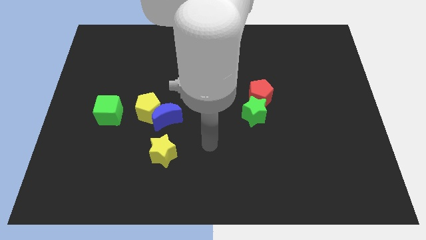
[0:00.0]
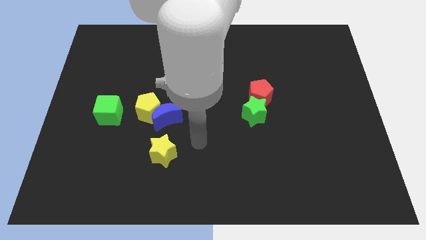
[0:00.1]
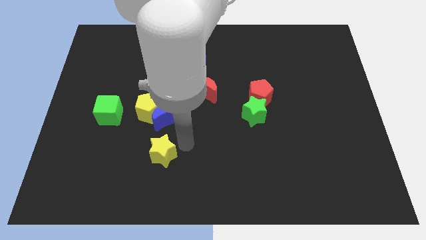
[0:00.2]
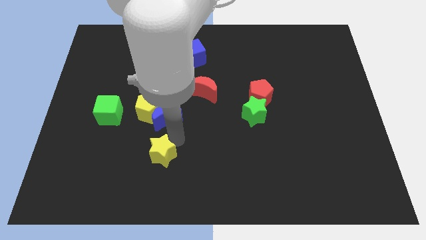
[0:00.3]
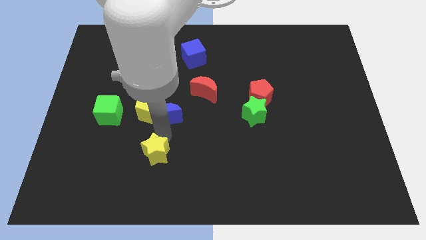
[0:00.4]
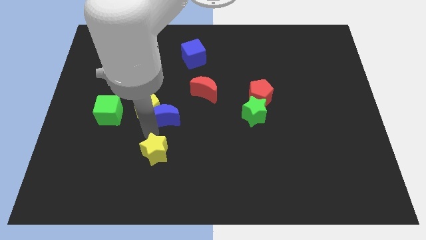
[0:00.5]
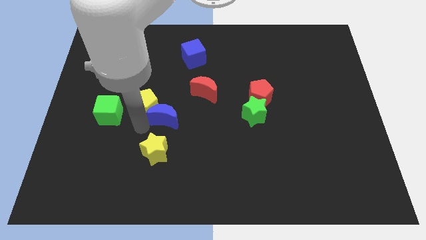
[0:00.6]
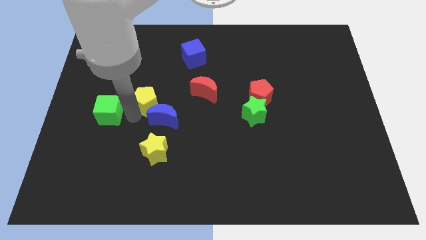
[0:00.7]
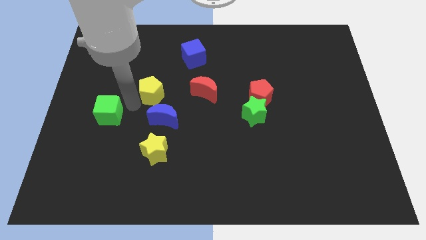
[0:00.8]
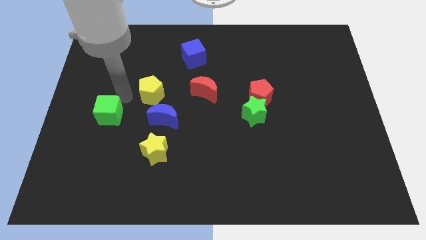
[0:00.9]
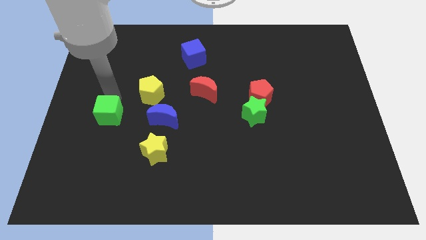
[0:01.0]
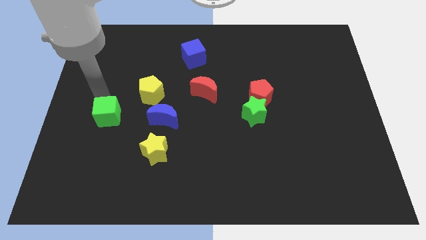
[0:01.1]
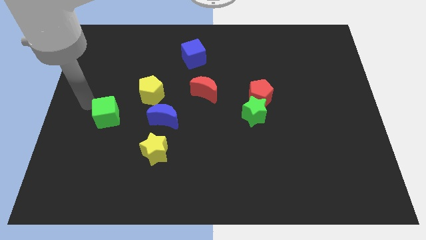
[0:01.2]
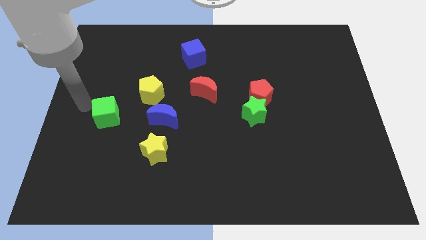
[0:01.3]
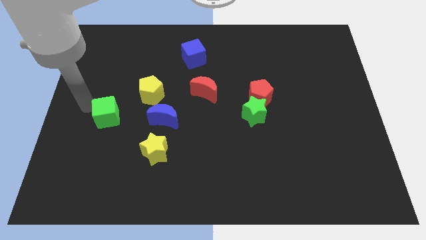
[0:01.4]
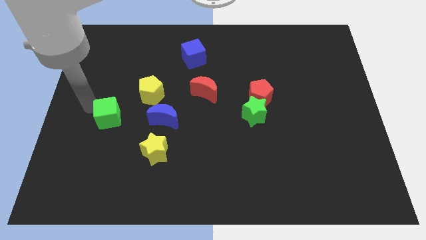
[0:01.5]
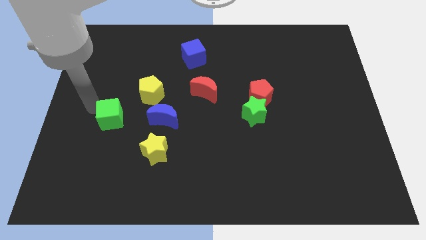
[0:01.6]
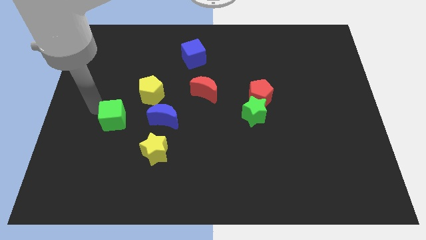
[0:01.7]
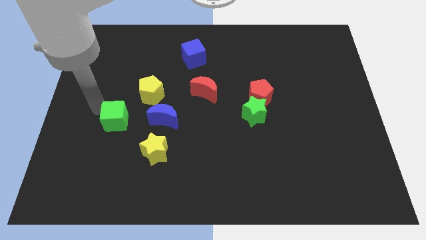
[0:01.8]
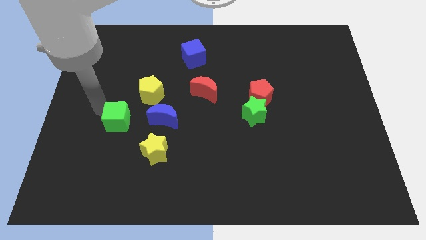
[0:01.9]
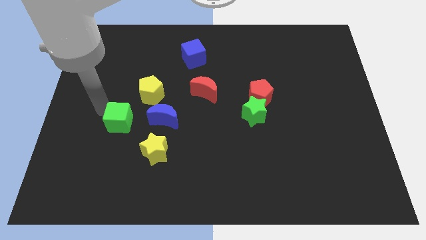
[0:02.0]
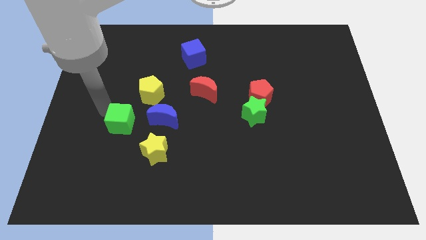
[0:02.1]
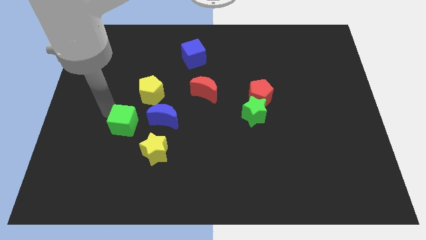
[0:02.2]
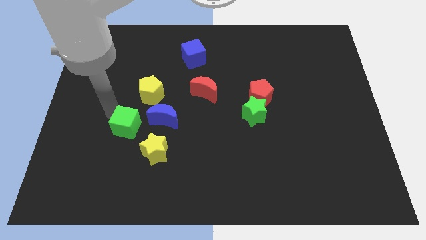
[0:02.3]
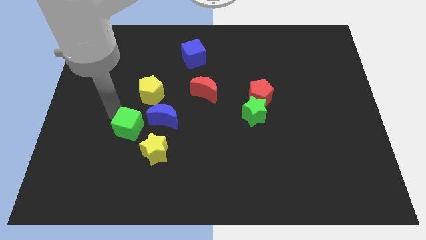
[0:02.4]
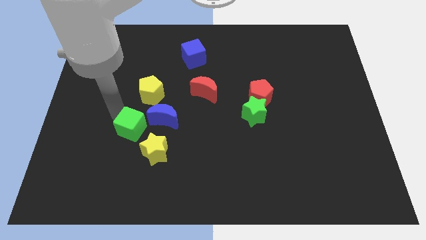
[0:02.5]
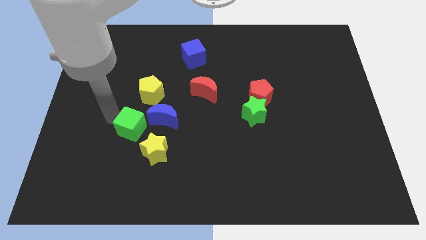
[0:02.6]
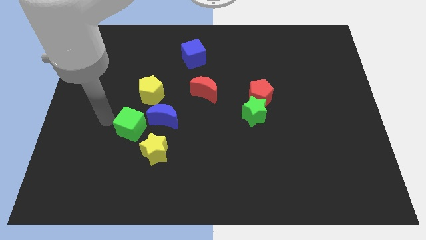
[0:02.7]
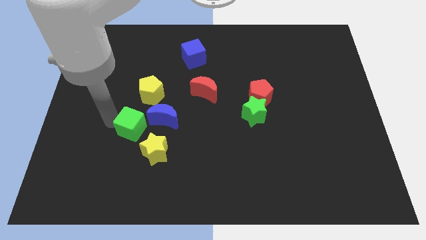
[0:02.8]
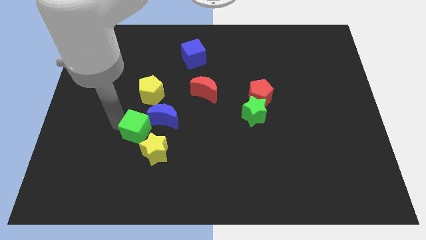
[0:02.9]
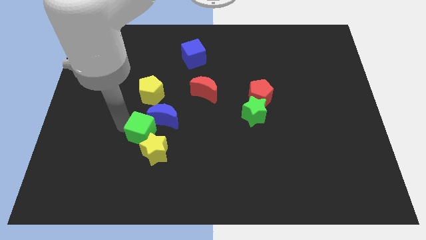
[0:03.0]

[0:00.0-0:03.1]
slide the green cube right a little

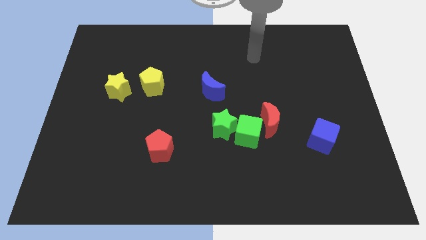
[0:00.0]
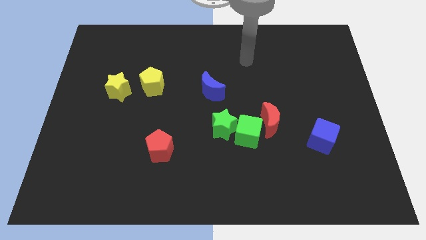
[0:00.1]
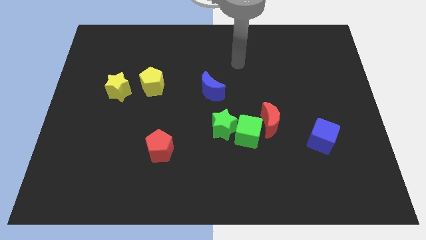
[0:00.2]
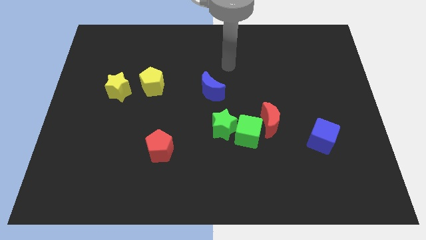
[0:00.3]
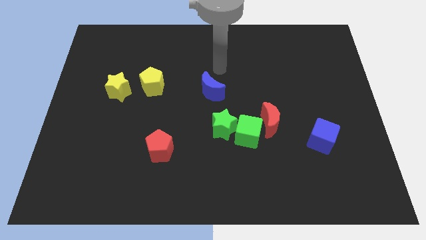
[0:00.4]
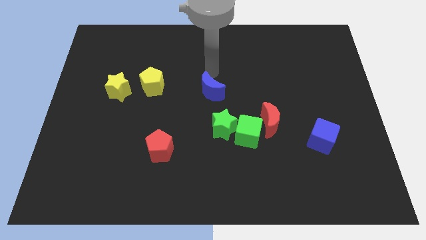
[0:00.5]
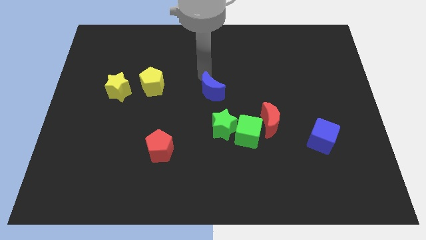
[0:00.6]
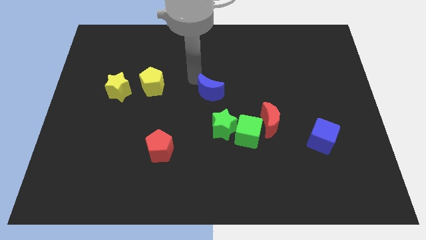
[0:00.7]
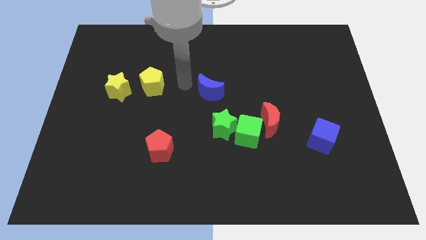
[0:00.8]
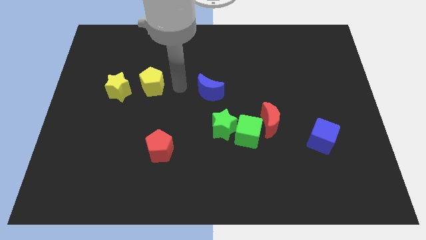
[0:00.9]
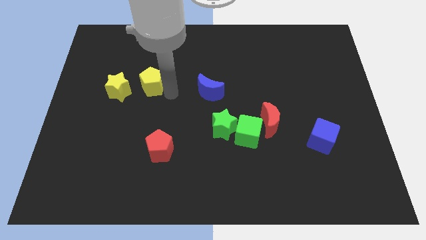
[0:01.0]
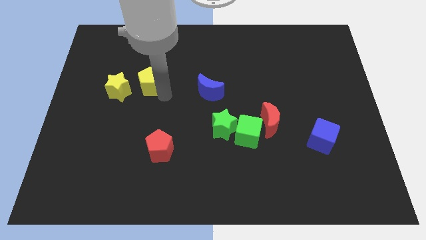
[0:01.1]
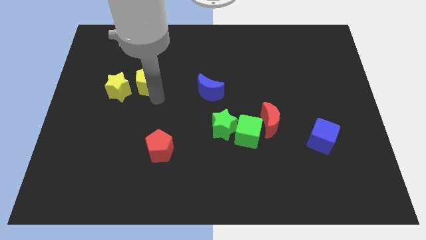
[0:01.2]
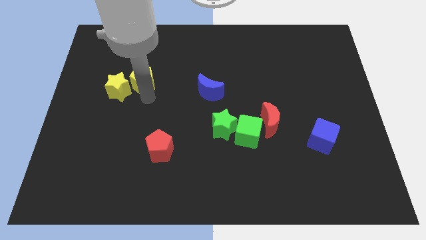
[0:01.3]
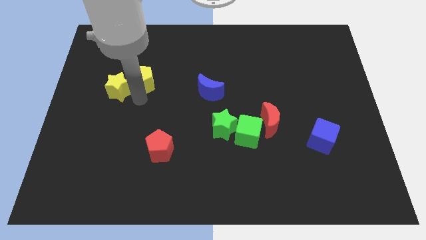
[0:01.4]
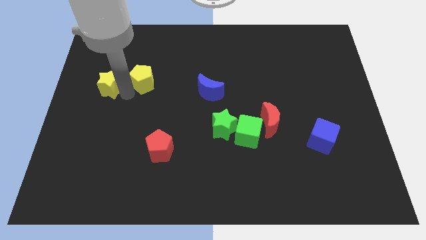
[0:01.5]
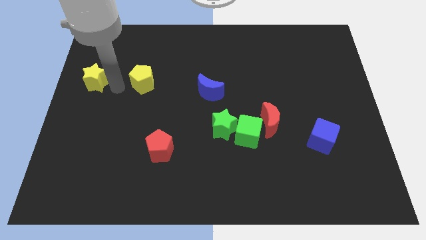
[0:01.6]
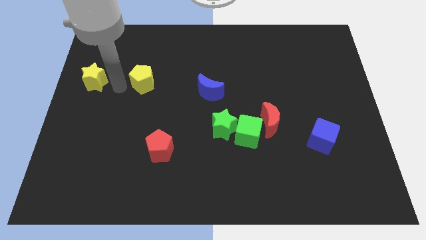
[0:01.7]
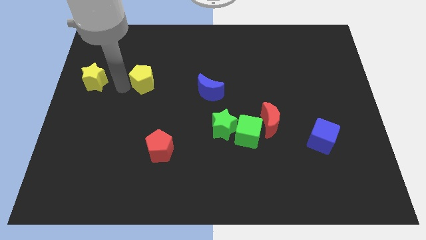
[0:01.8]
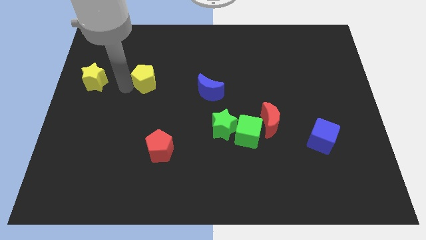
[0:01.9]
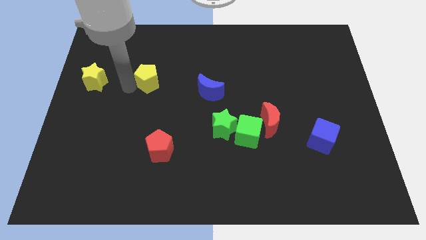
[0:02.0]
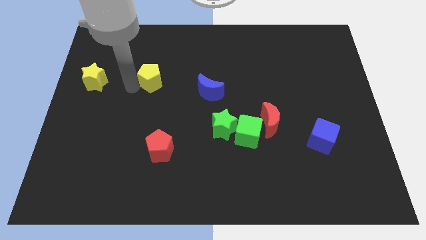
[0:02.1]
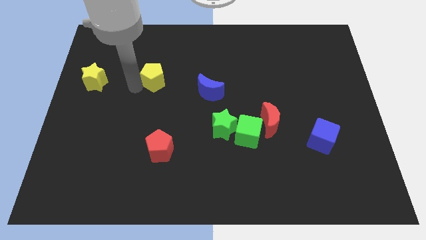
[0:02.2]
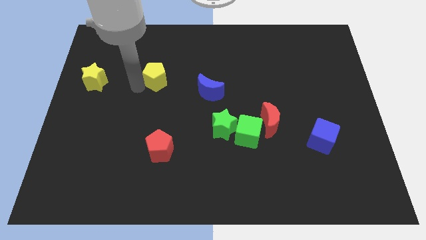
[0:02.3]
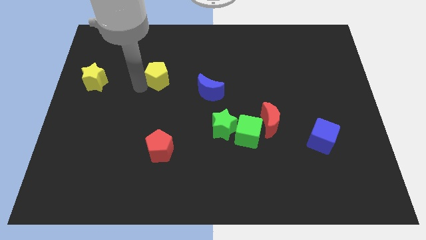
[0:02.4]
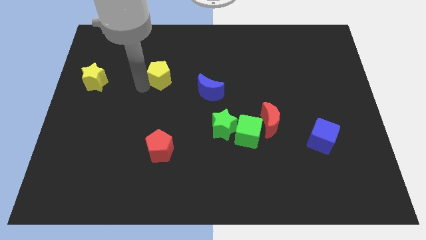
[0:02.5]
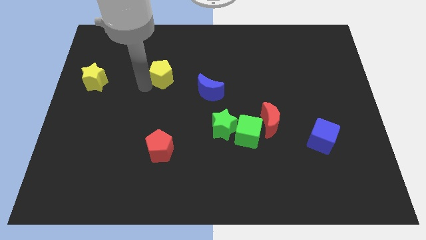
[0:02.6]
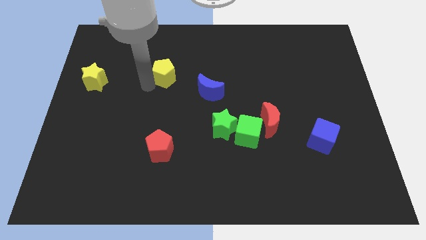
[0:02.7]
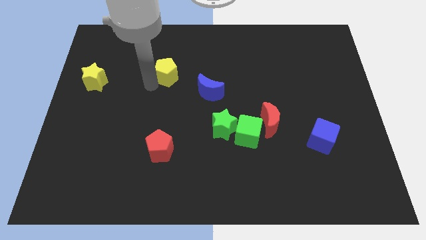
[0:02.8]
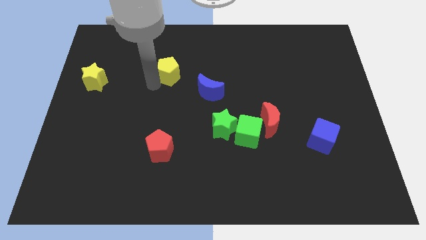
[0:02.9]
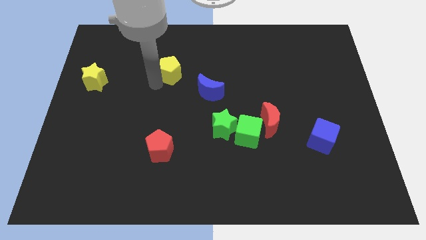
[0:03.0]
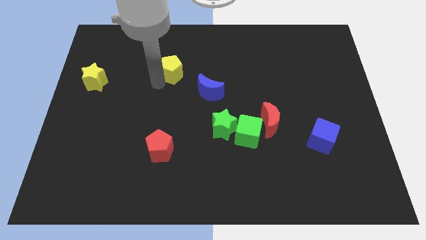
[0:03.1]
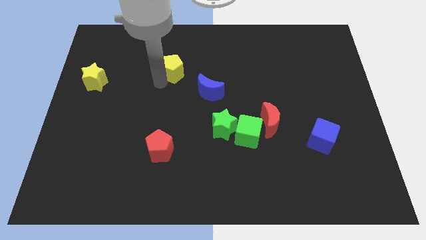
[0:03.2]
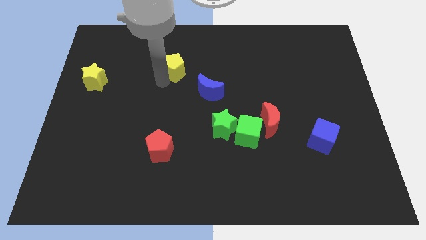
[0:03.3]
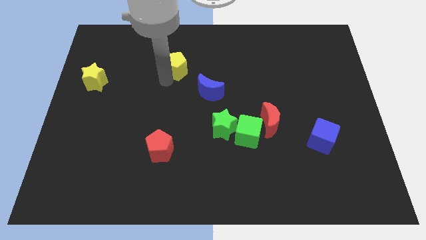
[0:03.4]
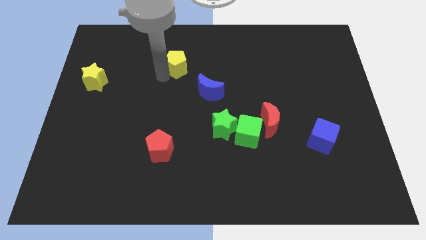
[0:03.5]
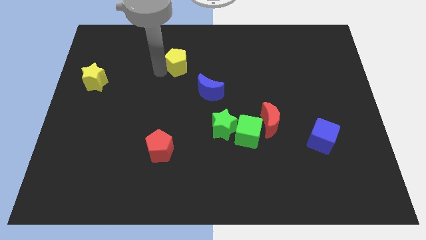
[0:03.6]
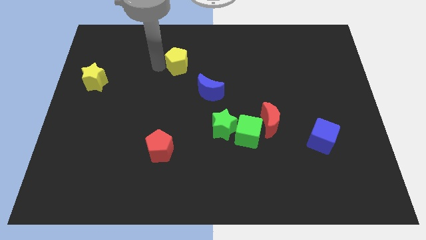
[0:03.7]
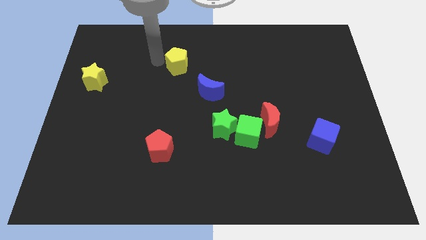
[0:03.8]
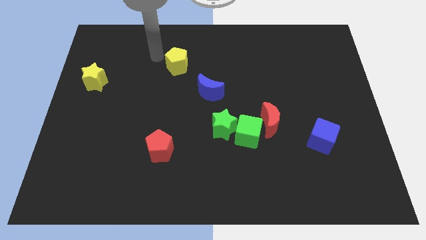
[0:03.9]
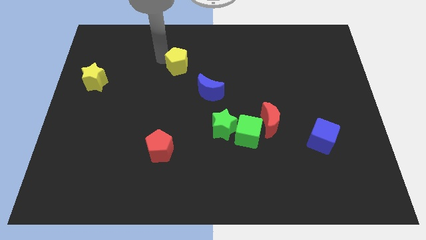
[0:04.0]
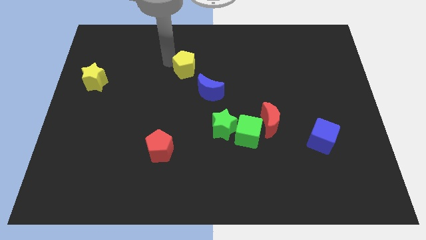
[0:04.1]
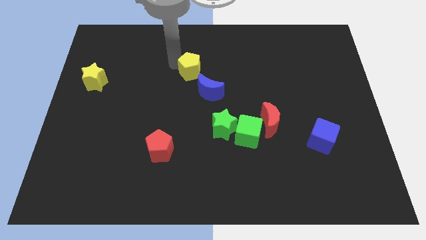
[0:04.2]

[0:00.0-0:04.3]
slightly slide the yellow pentagon right

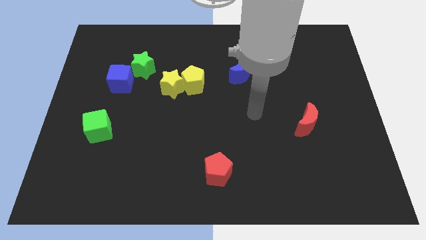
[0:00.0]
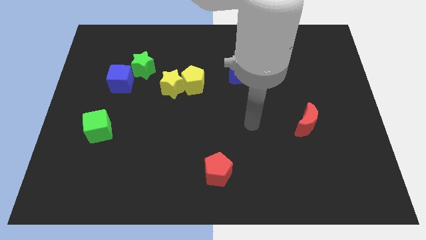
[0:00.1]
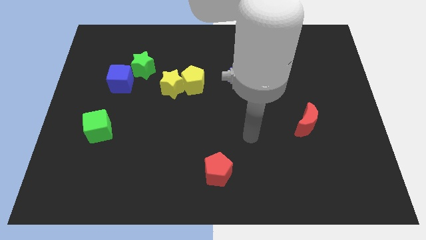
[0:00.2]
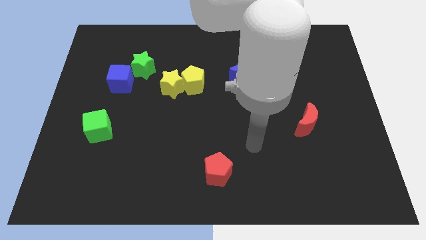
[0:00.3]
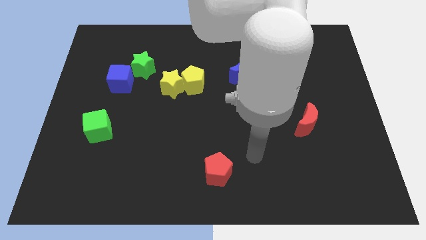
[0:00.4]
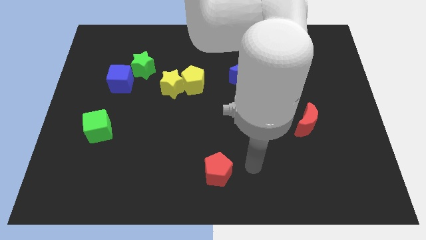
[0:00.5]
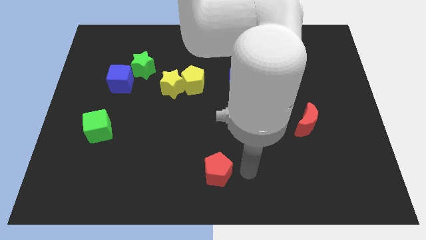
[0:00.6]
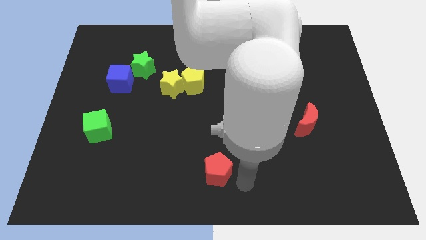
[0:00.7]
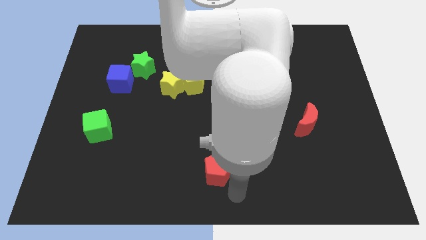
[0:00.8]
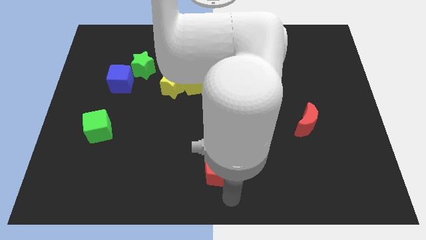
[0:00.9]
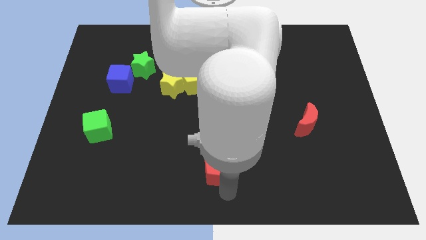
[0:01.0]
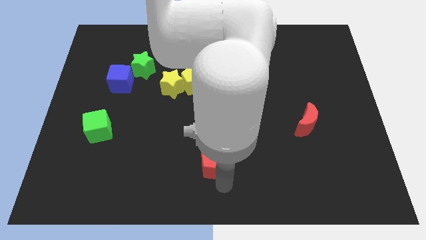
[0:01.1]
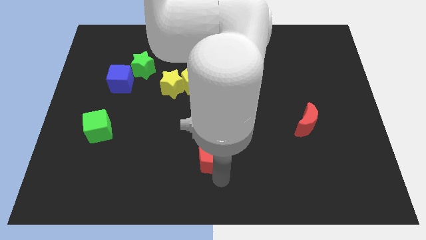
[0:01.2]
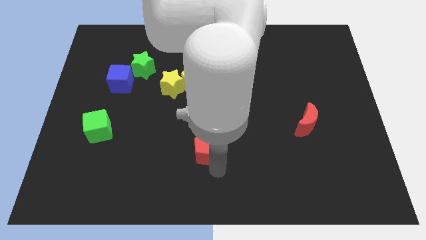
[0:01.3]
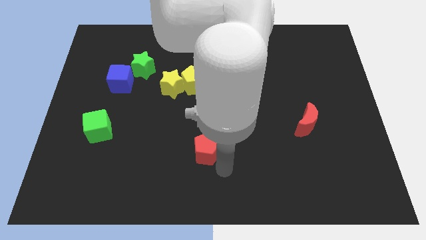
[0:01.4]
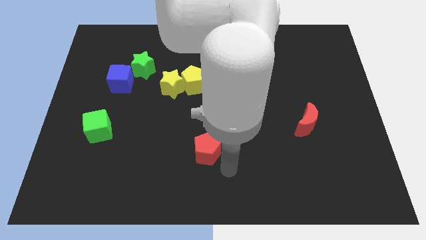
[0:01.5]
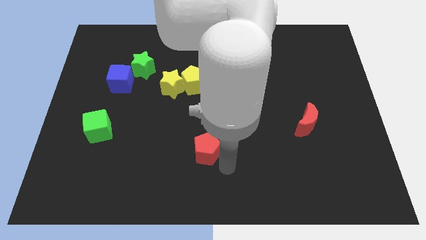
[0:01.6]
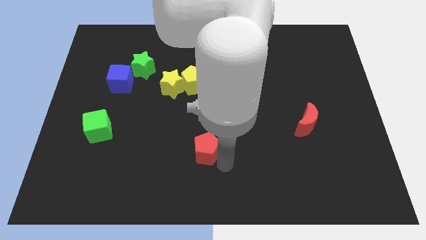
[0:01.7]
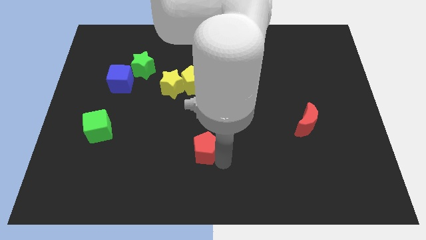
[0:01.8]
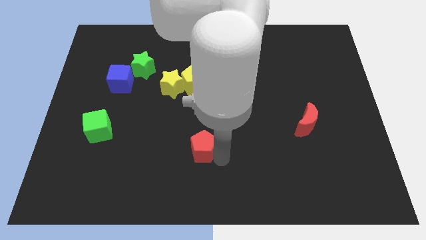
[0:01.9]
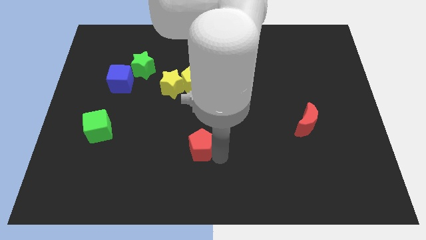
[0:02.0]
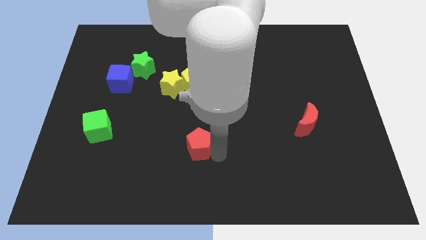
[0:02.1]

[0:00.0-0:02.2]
move the red pentagon a little bit up and to the left
